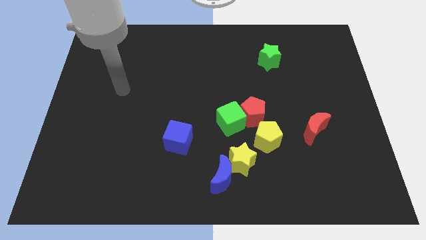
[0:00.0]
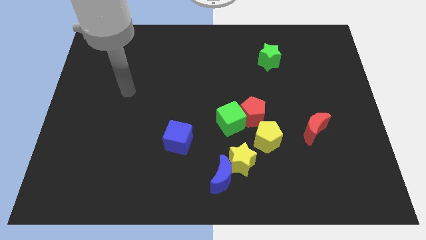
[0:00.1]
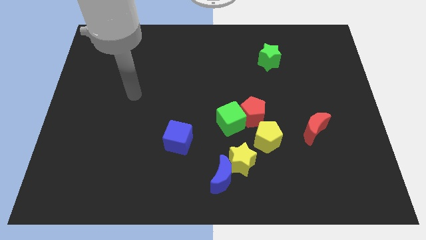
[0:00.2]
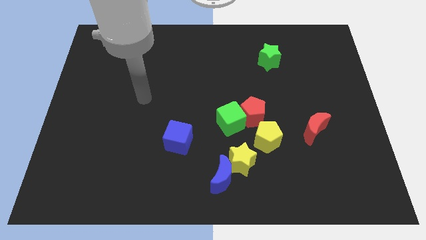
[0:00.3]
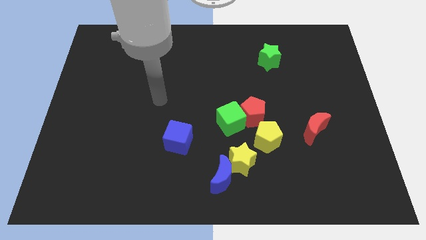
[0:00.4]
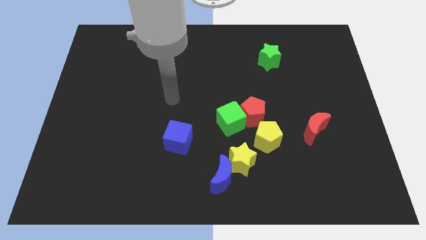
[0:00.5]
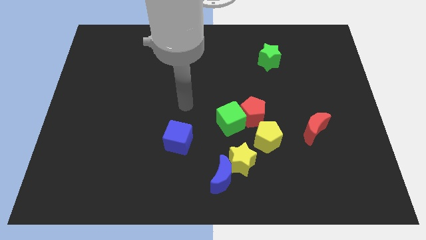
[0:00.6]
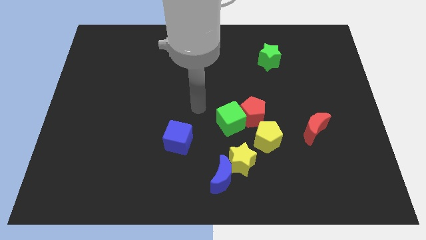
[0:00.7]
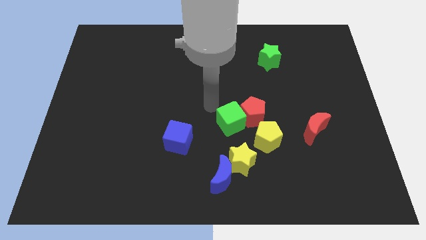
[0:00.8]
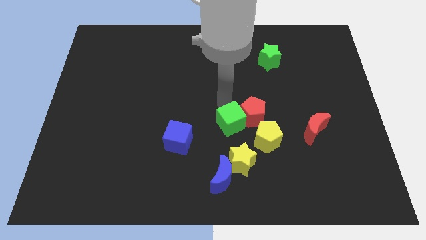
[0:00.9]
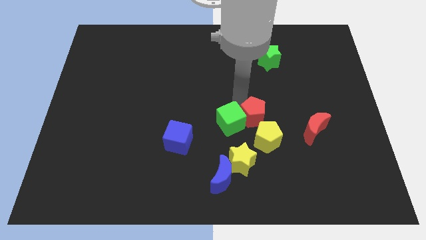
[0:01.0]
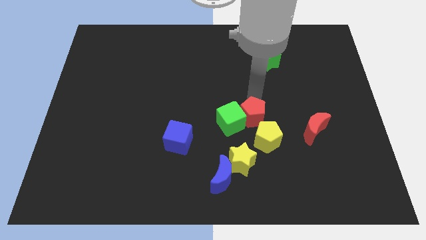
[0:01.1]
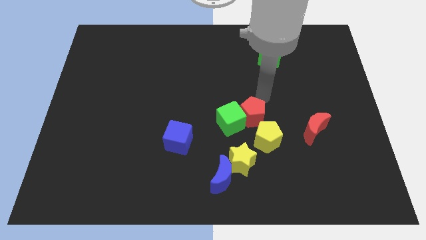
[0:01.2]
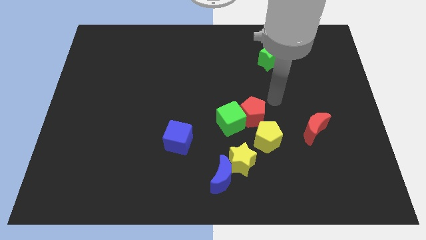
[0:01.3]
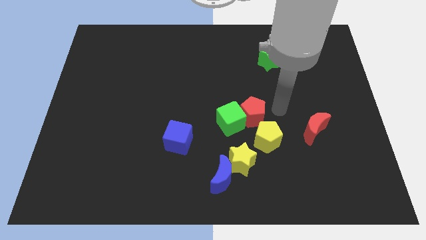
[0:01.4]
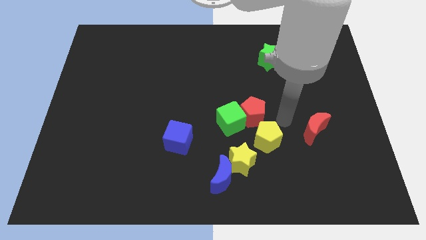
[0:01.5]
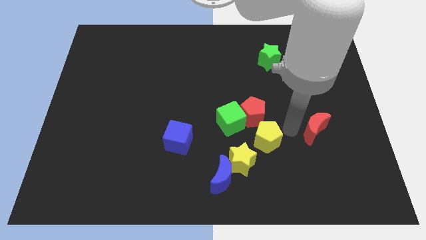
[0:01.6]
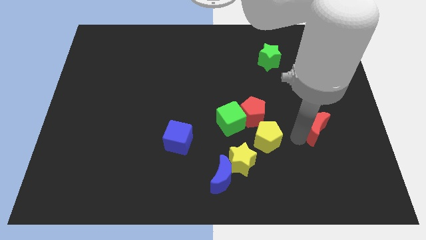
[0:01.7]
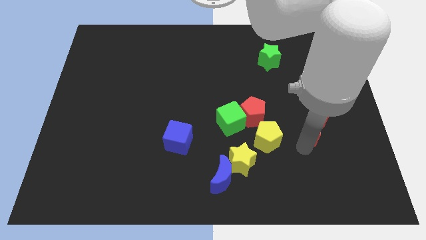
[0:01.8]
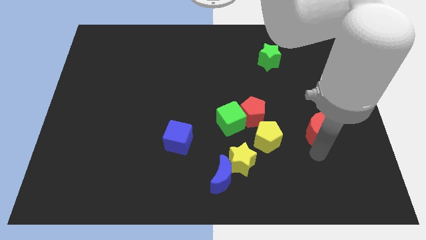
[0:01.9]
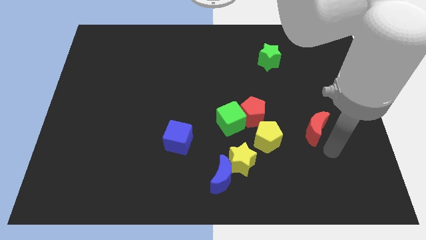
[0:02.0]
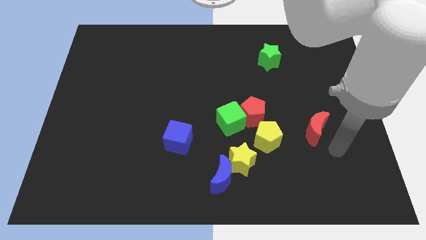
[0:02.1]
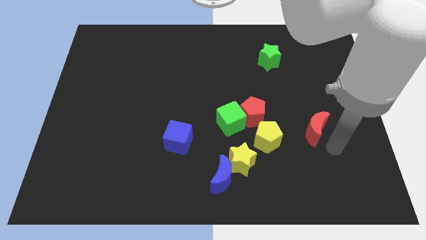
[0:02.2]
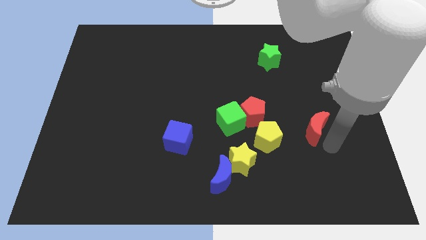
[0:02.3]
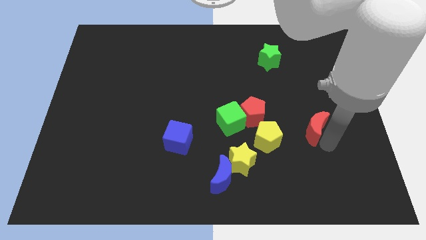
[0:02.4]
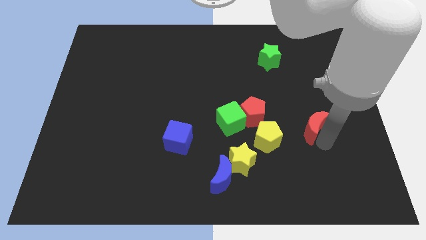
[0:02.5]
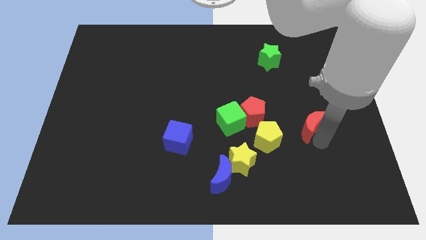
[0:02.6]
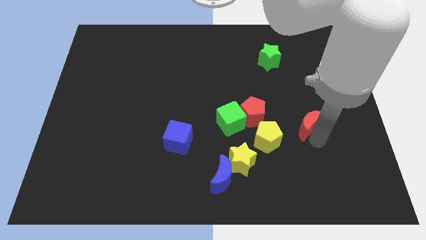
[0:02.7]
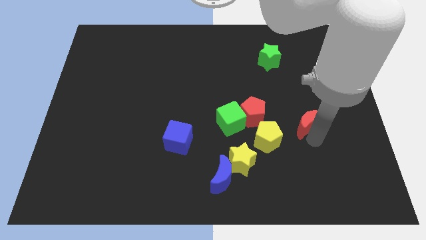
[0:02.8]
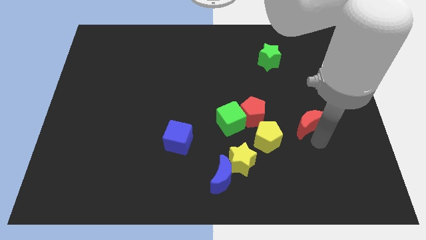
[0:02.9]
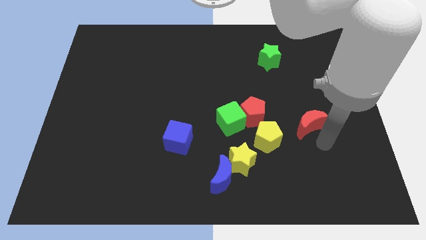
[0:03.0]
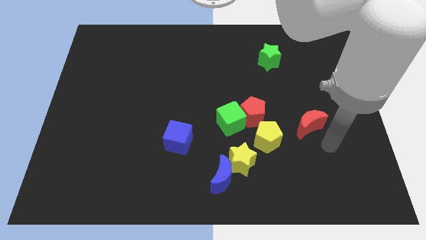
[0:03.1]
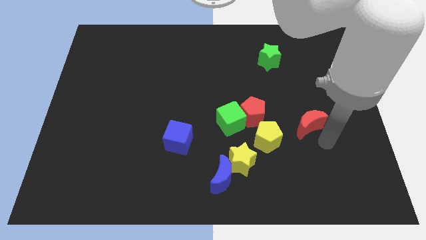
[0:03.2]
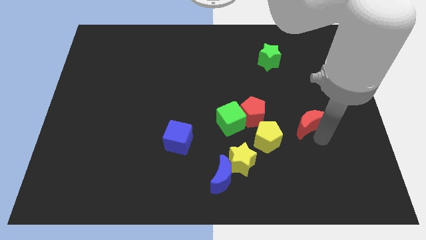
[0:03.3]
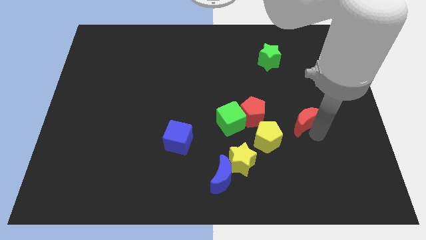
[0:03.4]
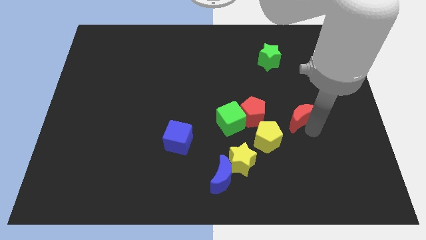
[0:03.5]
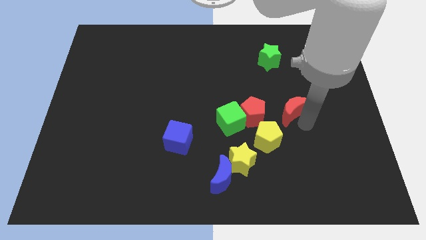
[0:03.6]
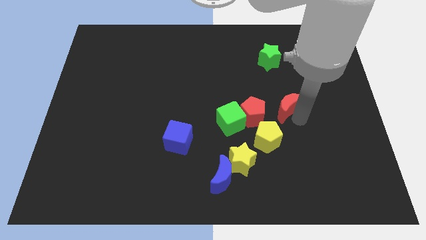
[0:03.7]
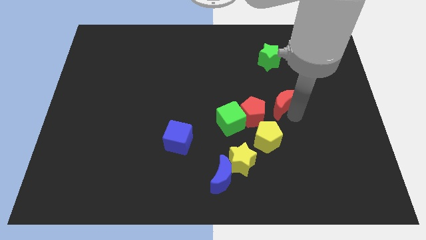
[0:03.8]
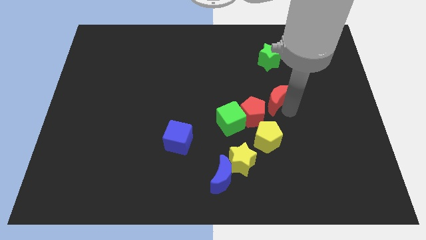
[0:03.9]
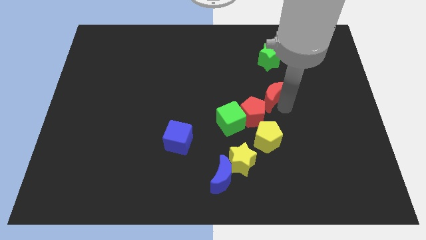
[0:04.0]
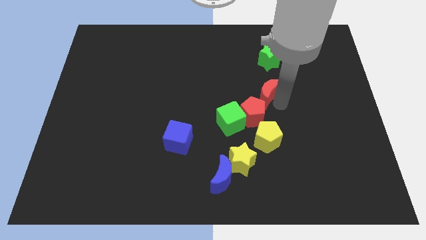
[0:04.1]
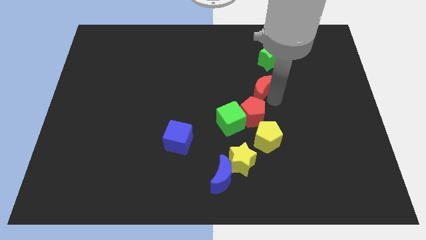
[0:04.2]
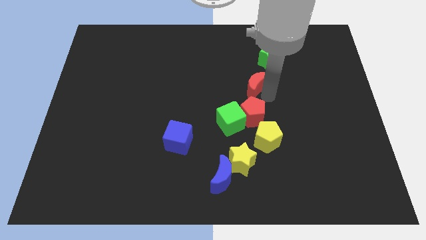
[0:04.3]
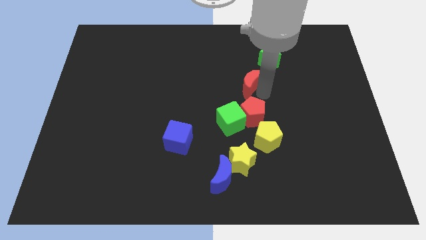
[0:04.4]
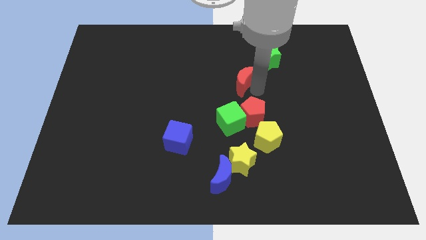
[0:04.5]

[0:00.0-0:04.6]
move the red moon upwards and to the left

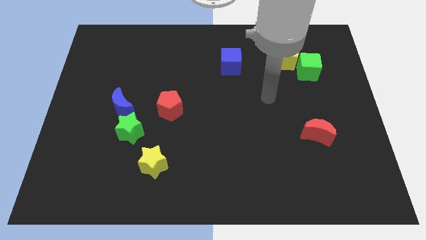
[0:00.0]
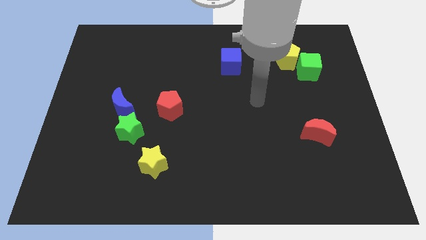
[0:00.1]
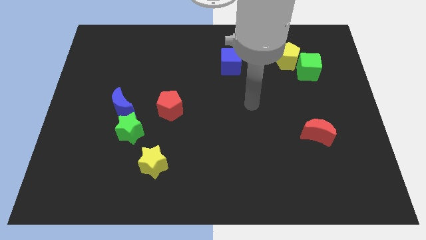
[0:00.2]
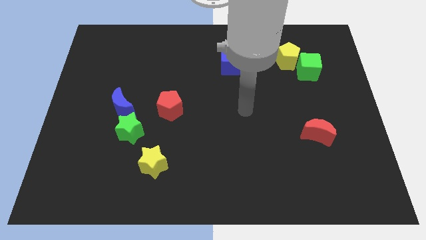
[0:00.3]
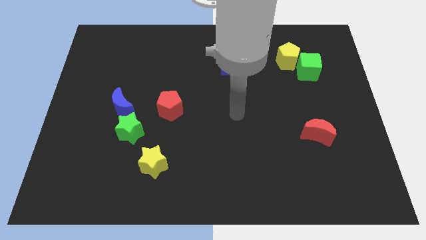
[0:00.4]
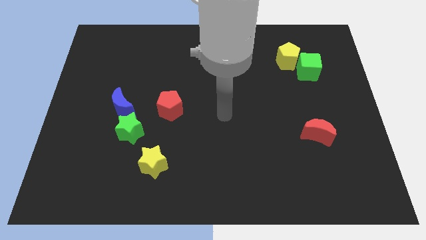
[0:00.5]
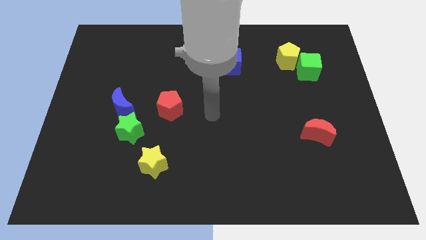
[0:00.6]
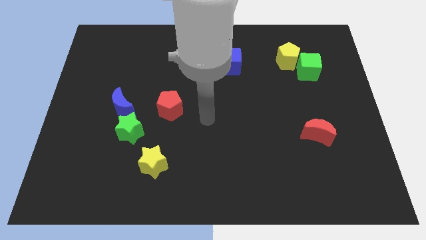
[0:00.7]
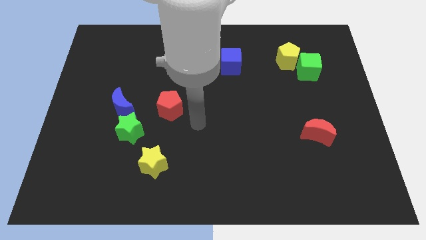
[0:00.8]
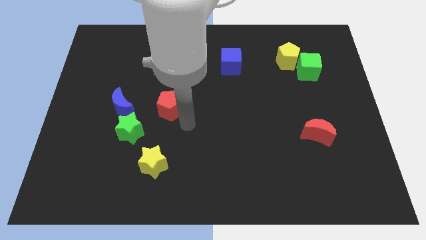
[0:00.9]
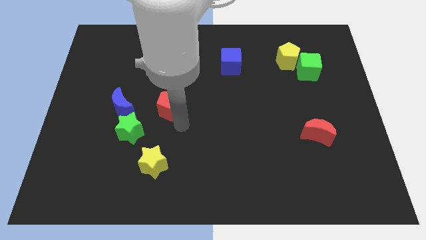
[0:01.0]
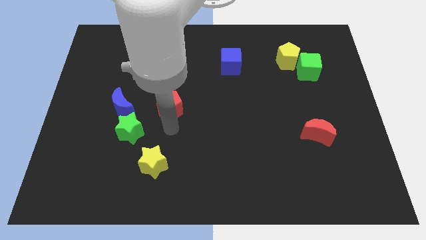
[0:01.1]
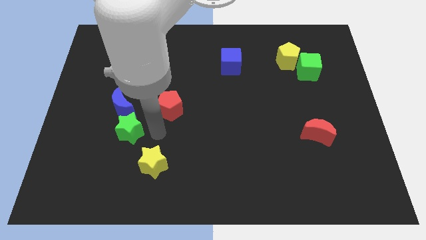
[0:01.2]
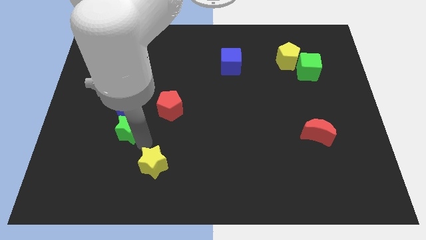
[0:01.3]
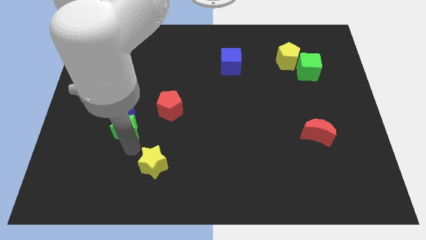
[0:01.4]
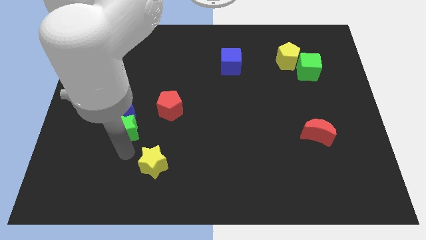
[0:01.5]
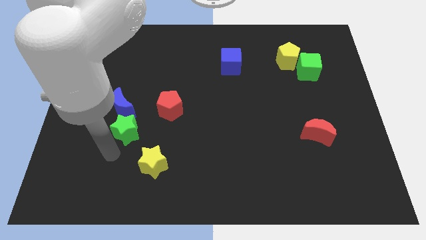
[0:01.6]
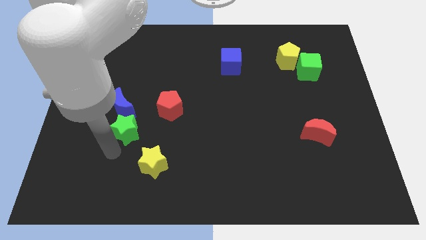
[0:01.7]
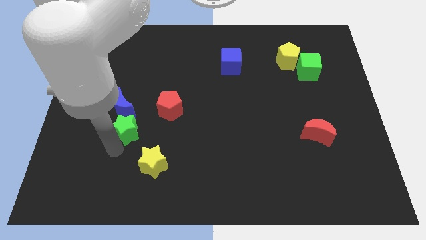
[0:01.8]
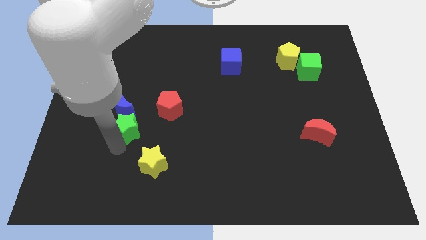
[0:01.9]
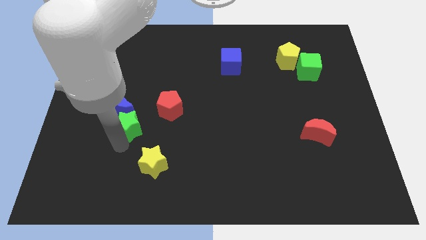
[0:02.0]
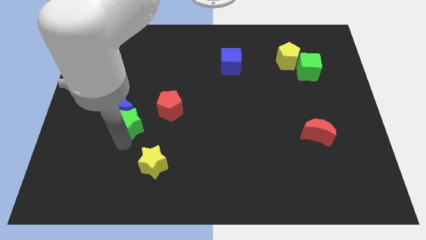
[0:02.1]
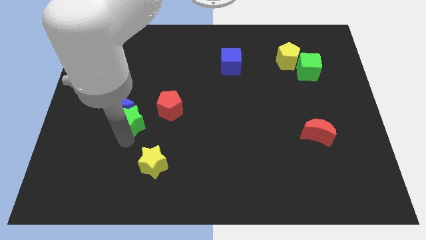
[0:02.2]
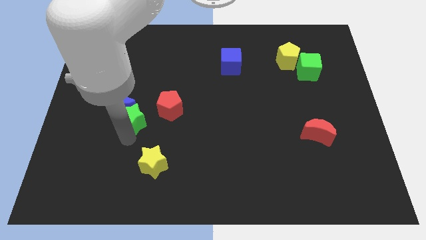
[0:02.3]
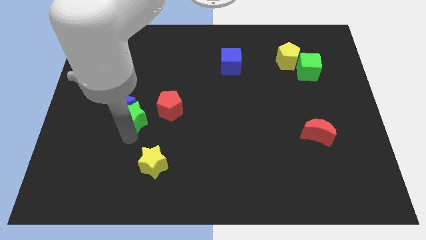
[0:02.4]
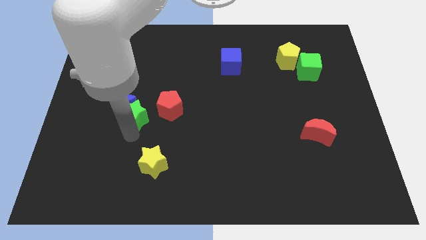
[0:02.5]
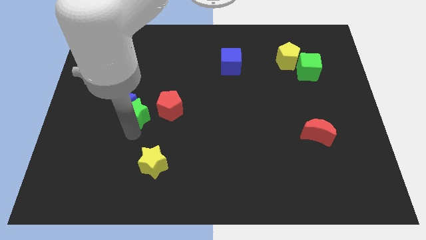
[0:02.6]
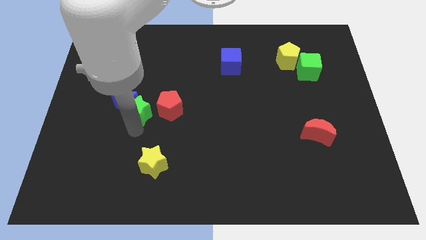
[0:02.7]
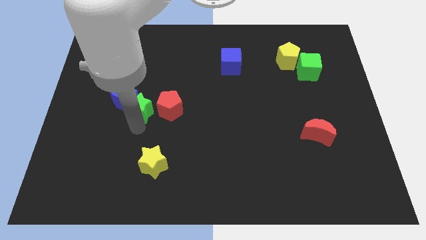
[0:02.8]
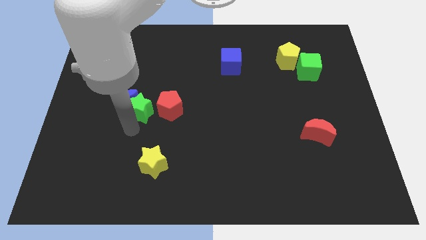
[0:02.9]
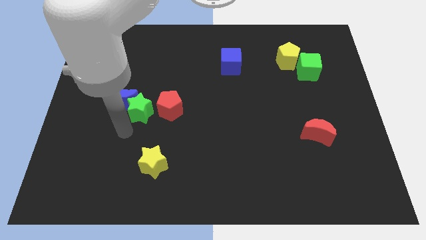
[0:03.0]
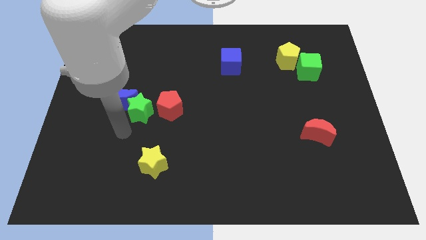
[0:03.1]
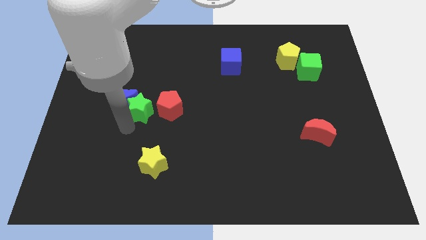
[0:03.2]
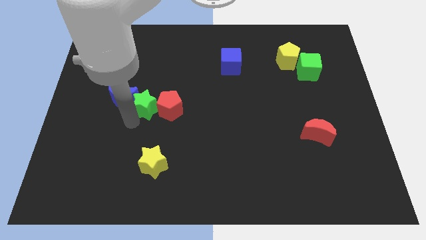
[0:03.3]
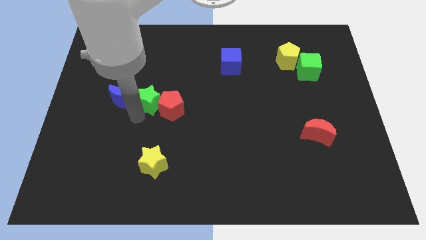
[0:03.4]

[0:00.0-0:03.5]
slide the green star a bit up and to the right
